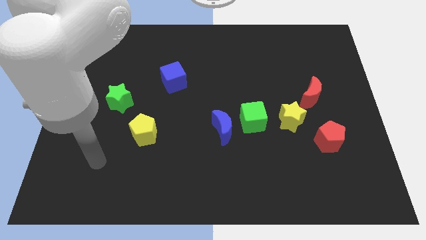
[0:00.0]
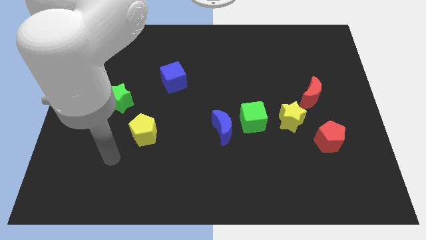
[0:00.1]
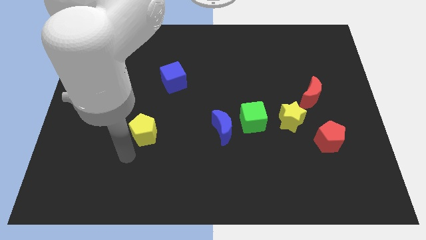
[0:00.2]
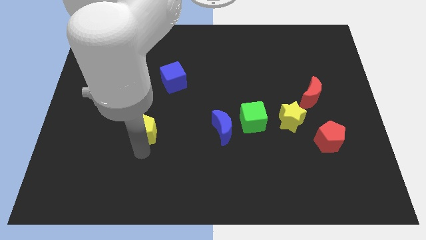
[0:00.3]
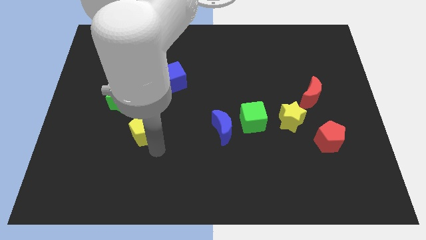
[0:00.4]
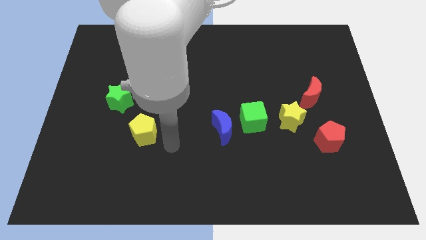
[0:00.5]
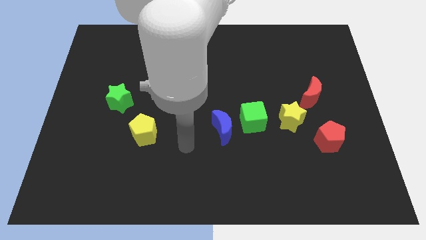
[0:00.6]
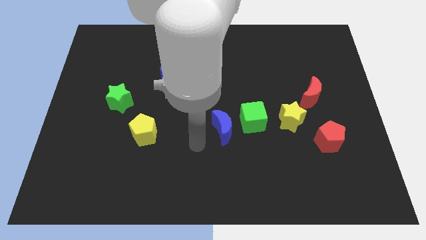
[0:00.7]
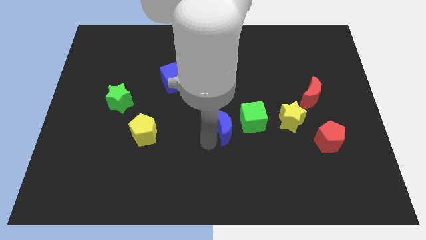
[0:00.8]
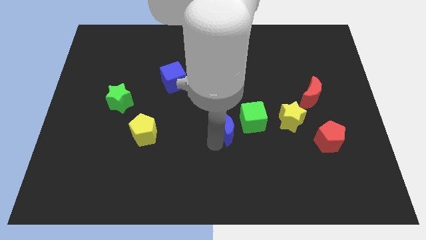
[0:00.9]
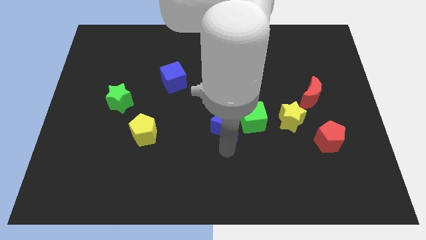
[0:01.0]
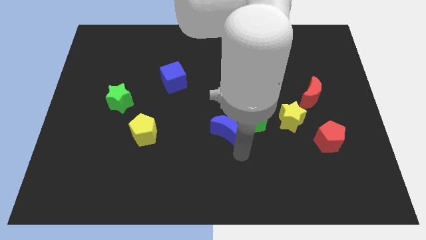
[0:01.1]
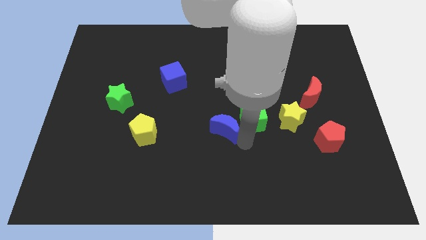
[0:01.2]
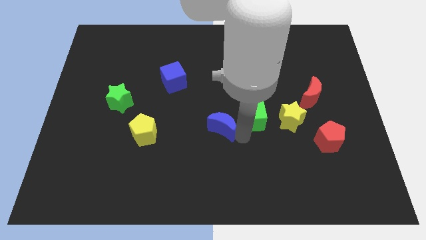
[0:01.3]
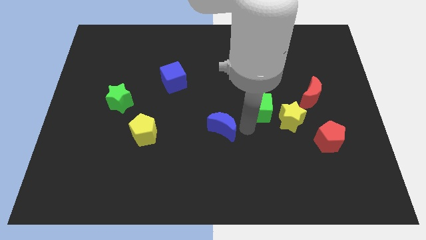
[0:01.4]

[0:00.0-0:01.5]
move the blue moon away from the green cube

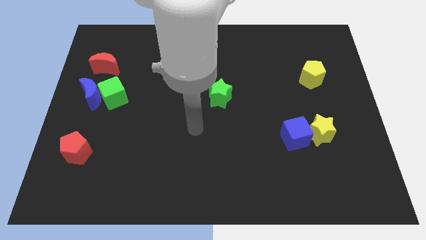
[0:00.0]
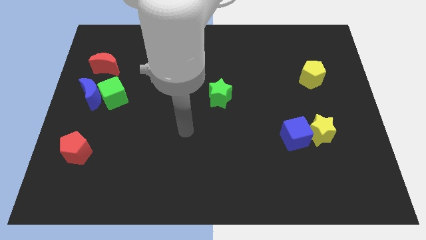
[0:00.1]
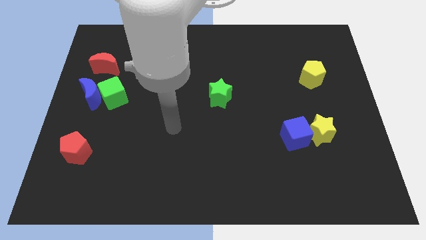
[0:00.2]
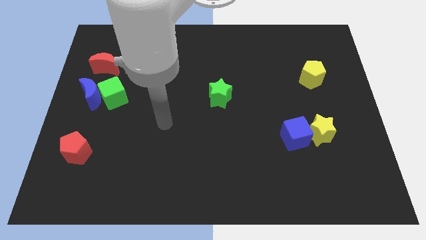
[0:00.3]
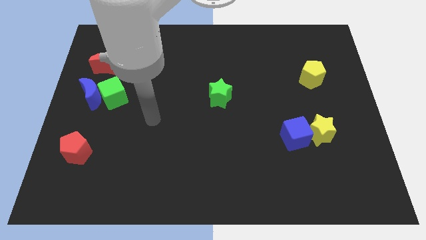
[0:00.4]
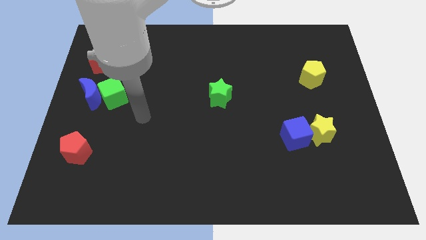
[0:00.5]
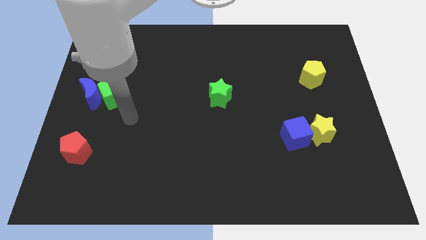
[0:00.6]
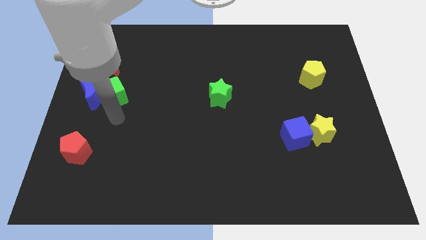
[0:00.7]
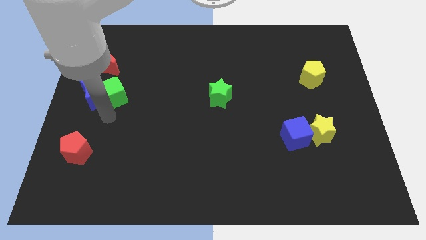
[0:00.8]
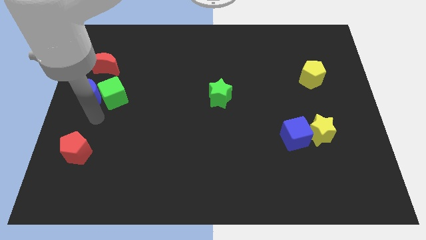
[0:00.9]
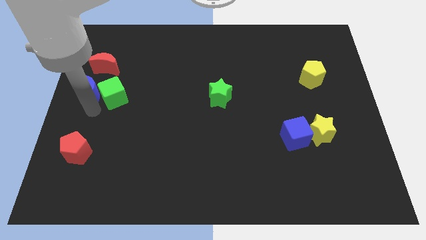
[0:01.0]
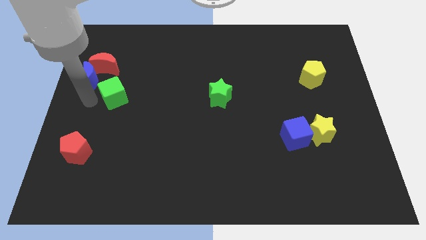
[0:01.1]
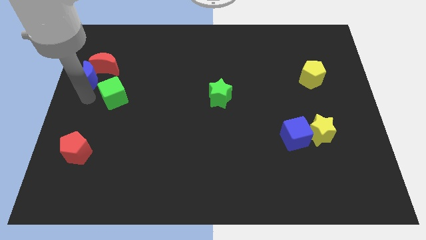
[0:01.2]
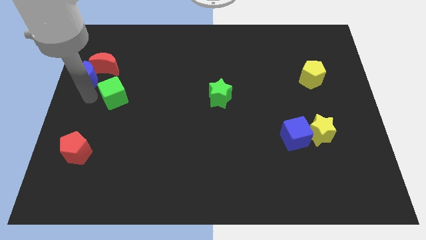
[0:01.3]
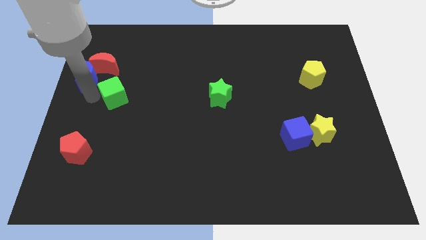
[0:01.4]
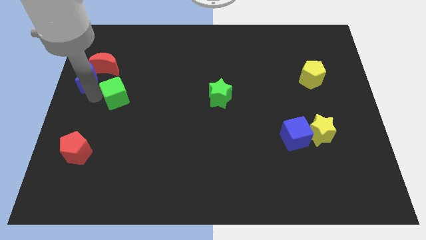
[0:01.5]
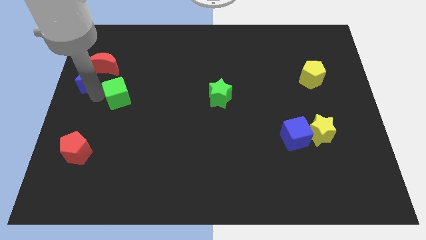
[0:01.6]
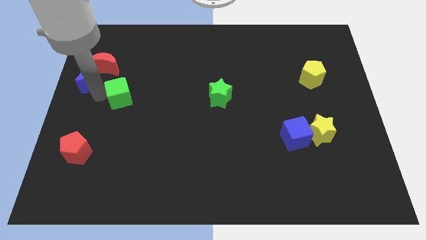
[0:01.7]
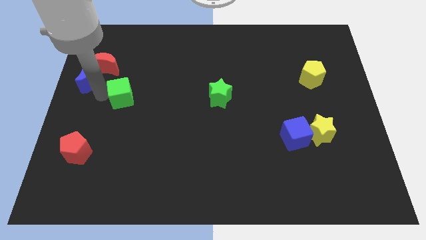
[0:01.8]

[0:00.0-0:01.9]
pull the green cube apart from the blue moon

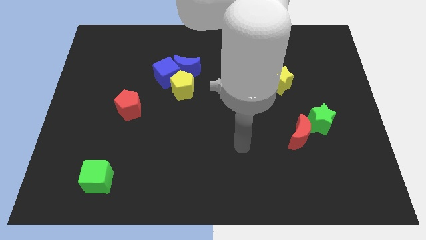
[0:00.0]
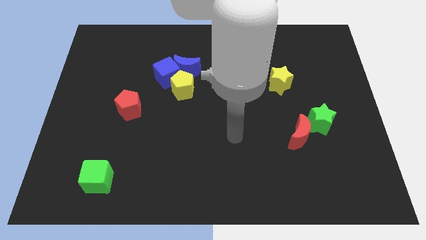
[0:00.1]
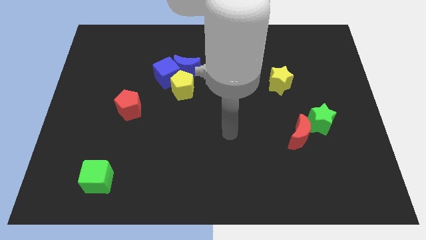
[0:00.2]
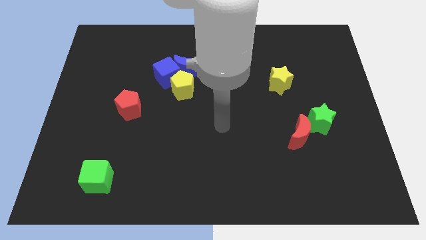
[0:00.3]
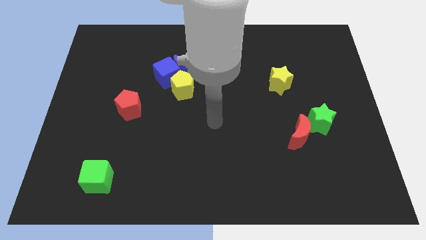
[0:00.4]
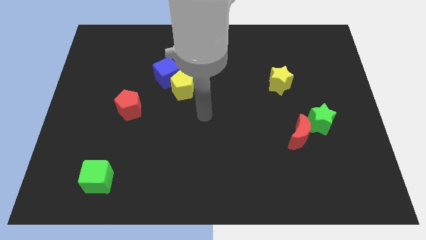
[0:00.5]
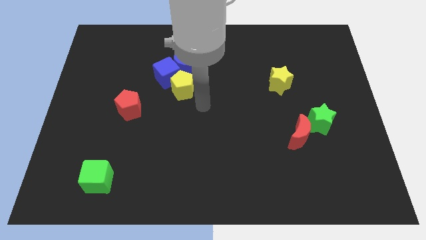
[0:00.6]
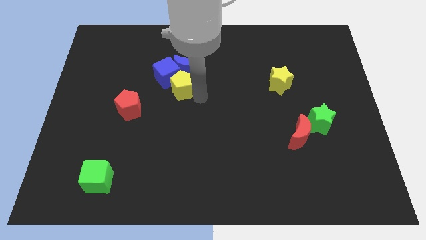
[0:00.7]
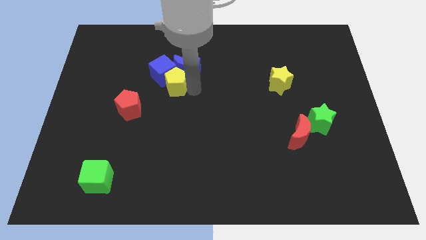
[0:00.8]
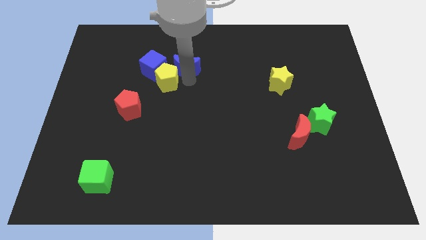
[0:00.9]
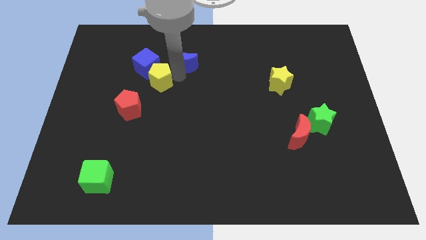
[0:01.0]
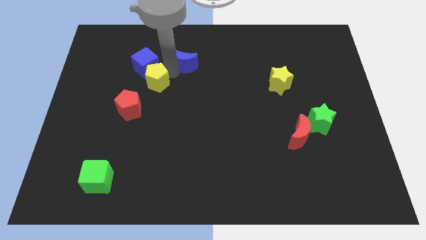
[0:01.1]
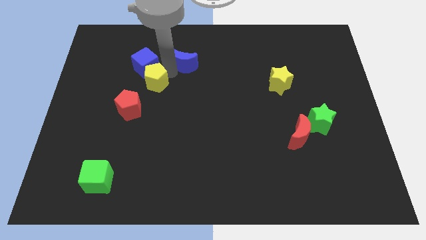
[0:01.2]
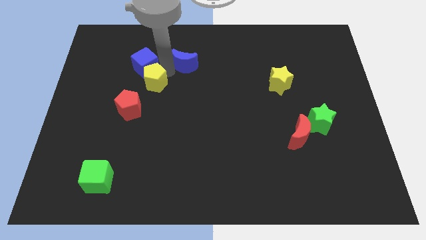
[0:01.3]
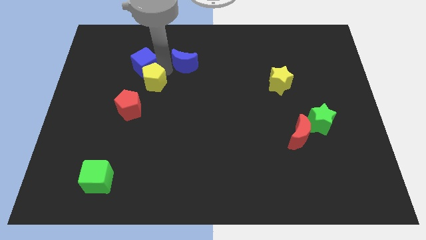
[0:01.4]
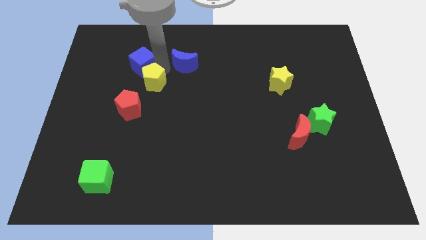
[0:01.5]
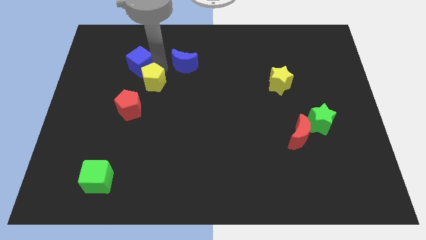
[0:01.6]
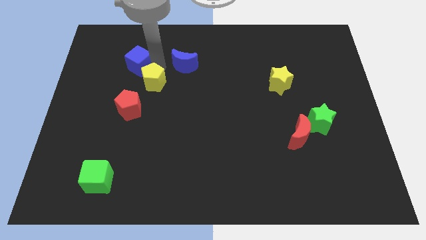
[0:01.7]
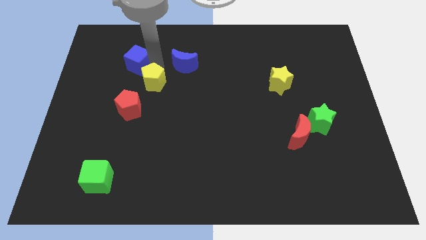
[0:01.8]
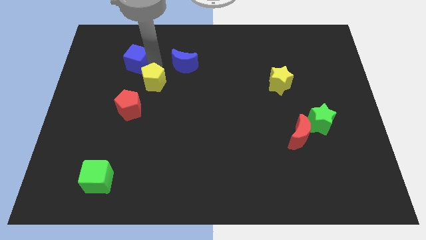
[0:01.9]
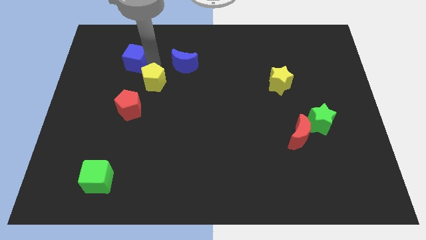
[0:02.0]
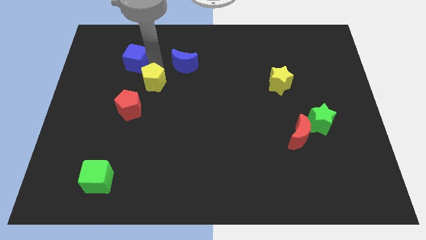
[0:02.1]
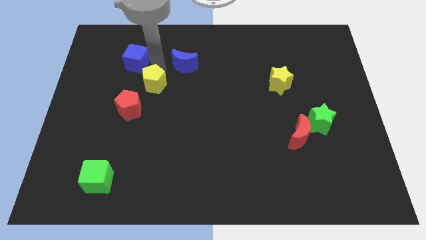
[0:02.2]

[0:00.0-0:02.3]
separate the blue cube from the blue moon and yellow pentagon

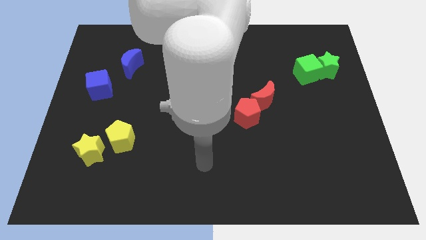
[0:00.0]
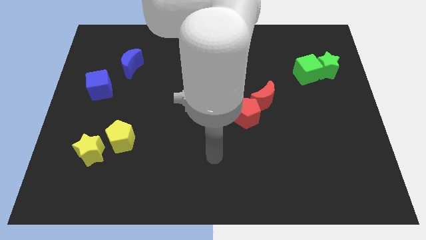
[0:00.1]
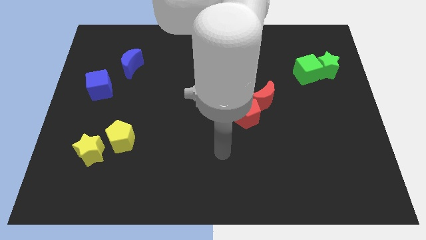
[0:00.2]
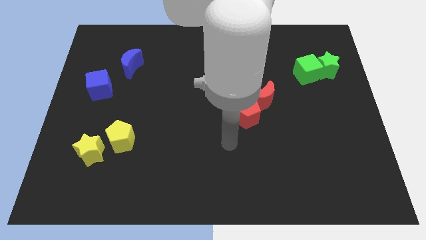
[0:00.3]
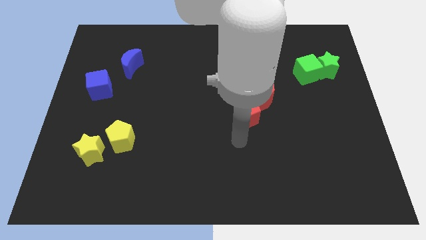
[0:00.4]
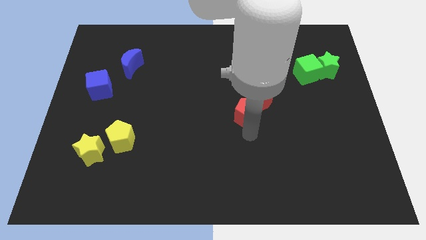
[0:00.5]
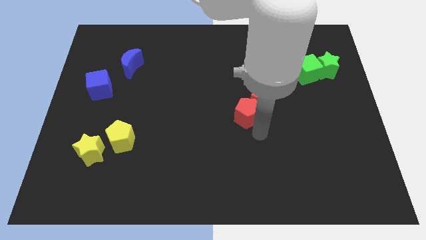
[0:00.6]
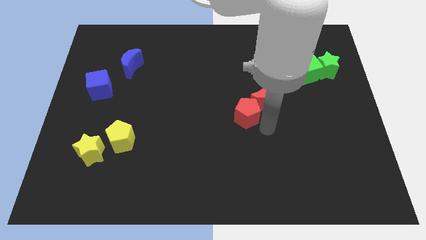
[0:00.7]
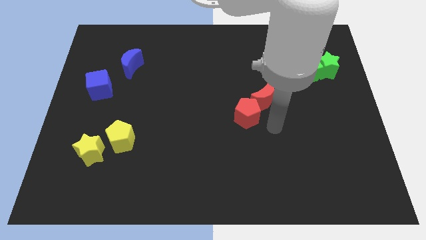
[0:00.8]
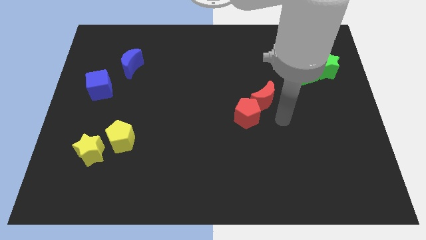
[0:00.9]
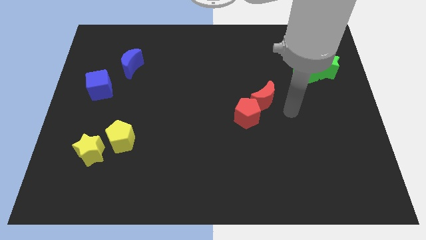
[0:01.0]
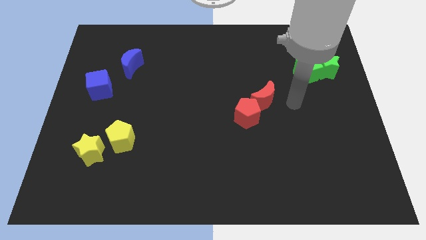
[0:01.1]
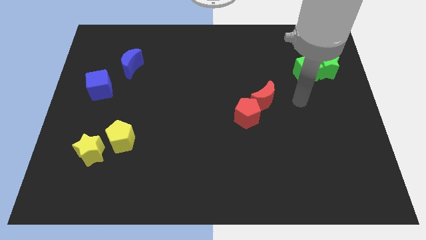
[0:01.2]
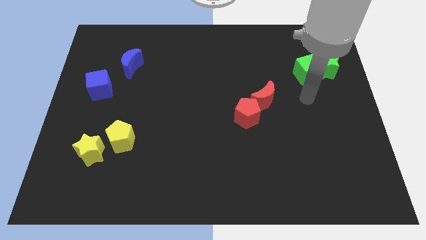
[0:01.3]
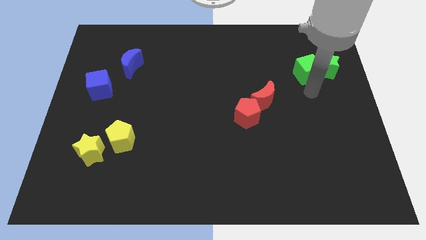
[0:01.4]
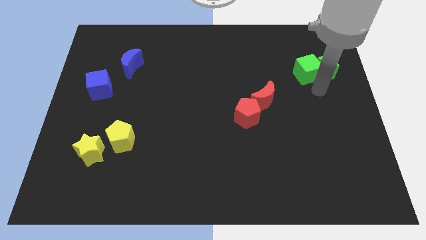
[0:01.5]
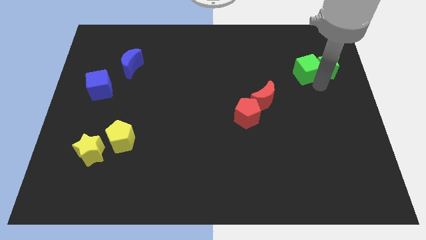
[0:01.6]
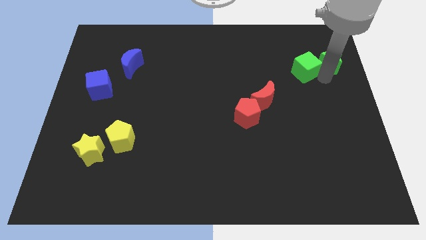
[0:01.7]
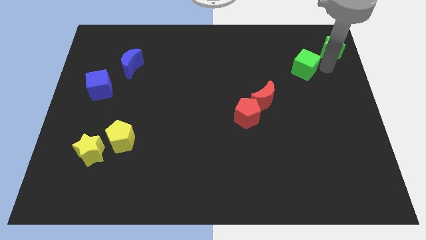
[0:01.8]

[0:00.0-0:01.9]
separate the green cube from the green star

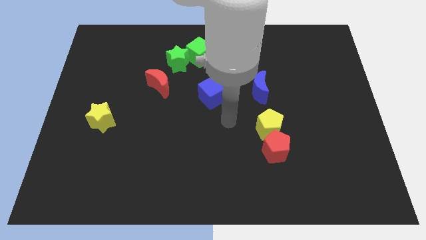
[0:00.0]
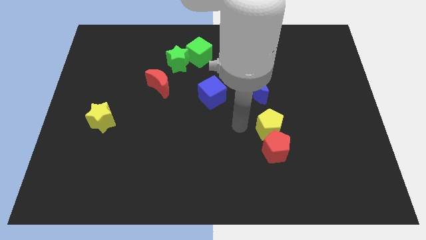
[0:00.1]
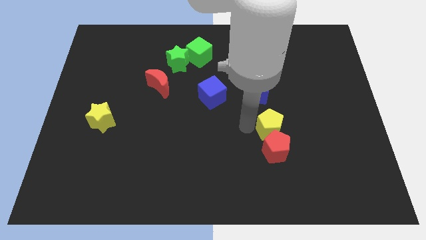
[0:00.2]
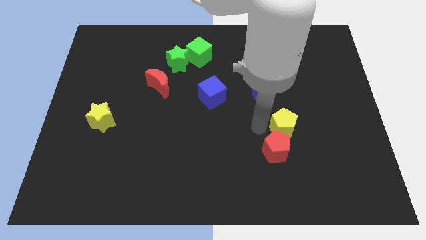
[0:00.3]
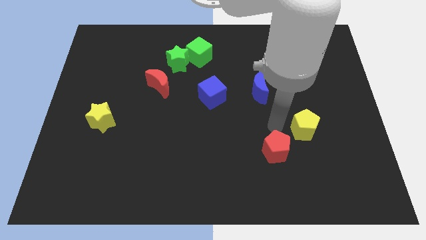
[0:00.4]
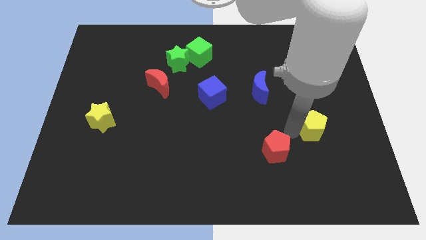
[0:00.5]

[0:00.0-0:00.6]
move the red pentagon away from the yellow pentagon

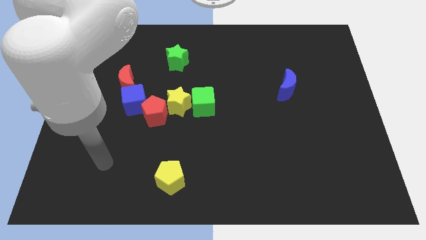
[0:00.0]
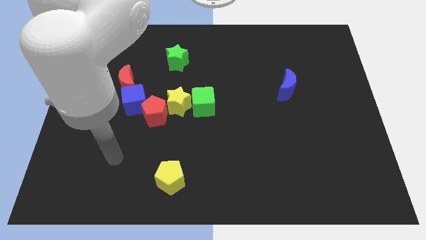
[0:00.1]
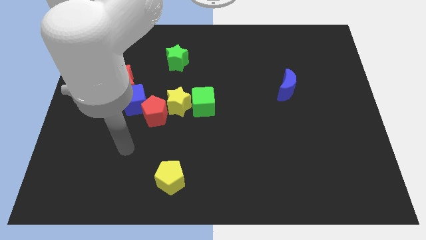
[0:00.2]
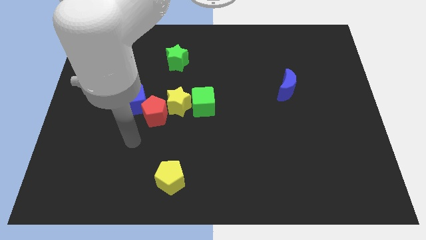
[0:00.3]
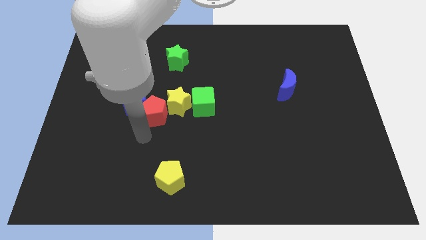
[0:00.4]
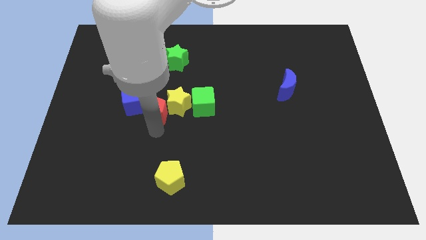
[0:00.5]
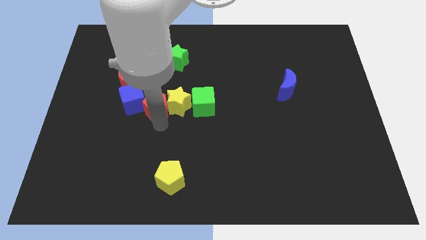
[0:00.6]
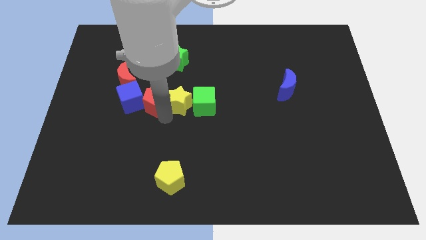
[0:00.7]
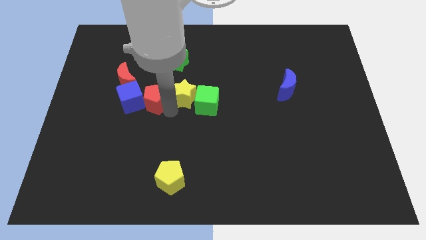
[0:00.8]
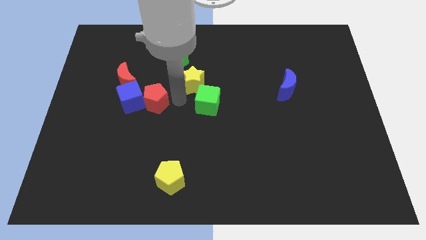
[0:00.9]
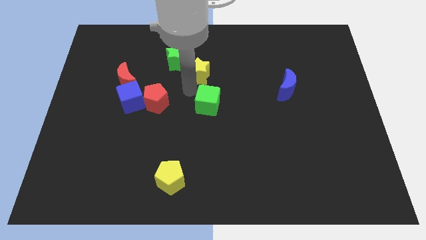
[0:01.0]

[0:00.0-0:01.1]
move the green cube away from the yellow star
